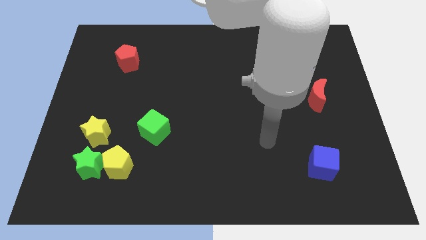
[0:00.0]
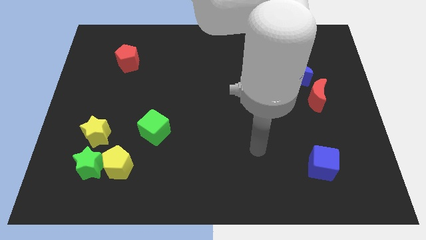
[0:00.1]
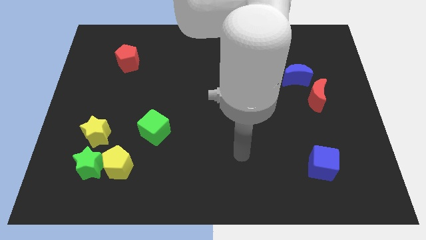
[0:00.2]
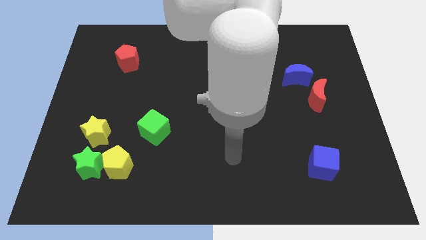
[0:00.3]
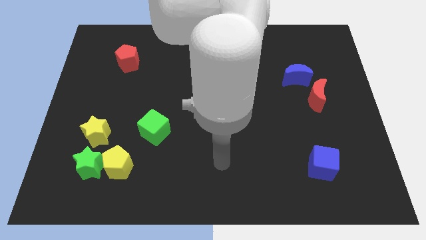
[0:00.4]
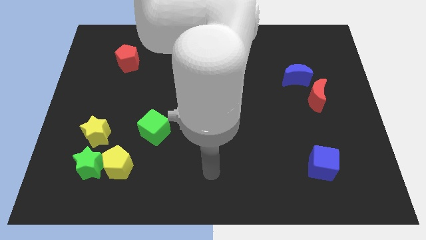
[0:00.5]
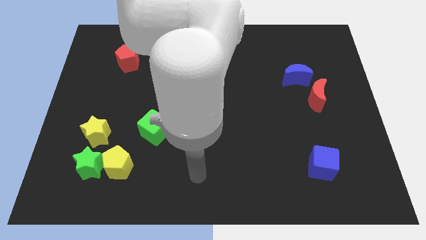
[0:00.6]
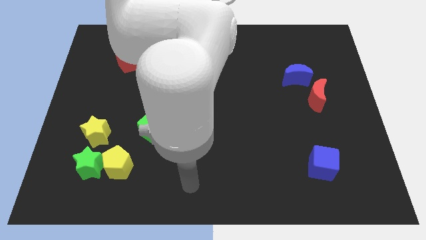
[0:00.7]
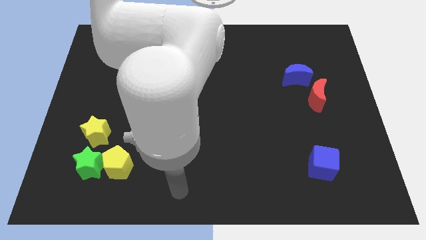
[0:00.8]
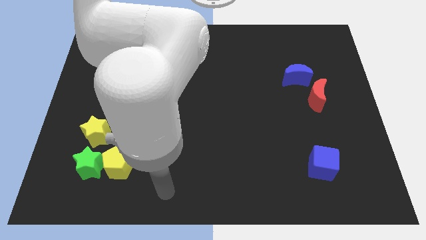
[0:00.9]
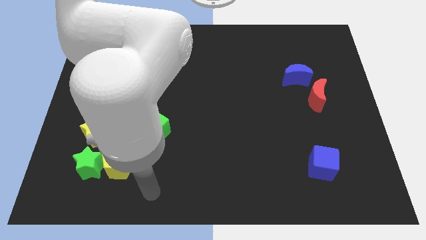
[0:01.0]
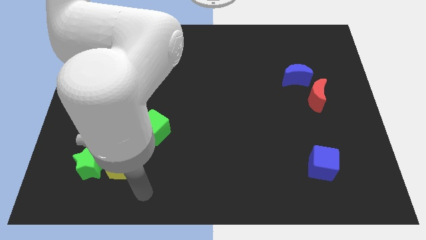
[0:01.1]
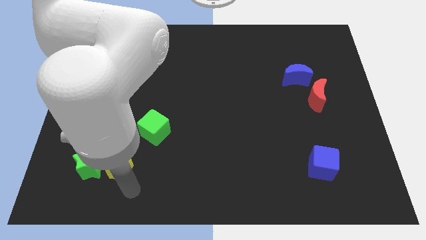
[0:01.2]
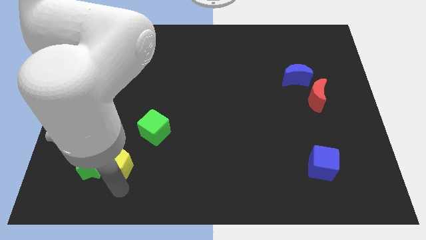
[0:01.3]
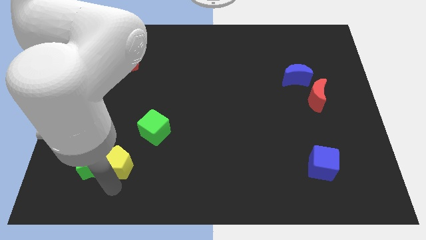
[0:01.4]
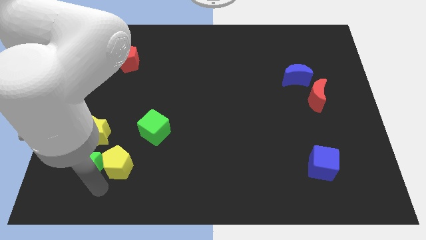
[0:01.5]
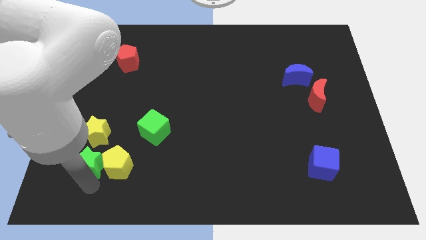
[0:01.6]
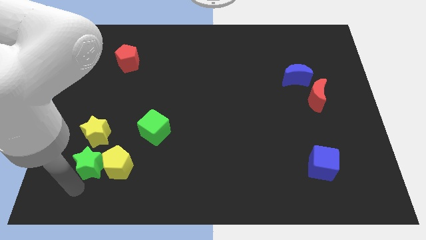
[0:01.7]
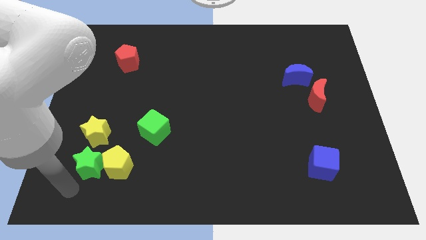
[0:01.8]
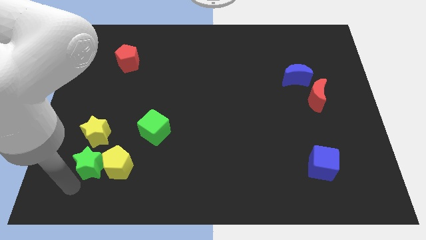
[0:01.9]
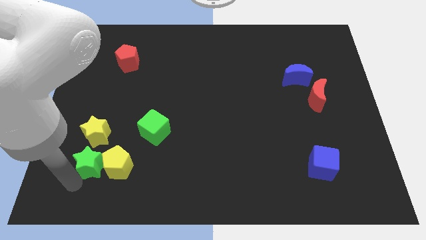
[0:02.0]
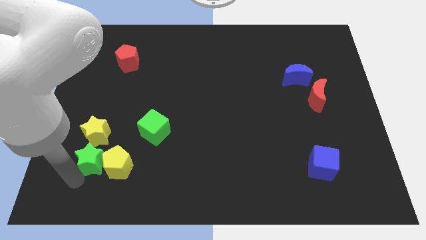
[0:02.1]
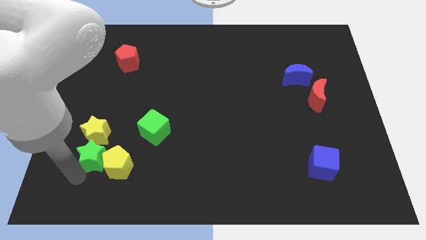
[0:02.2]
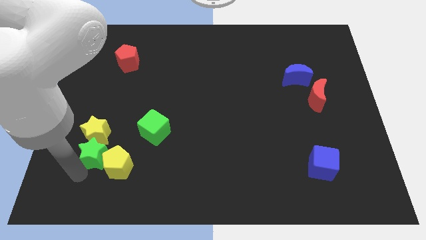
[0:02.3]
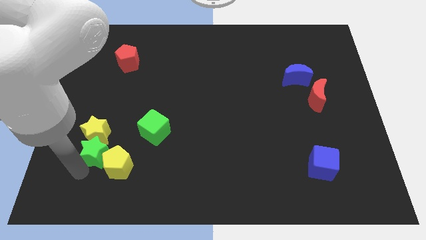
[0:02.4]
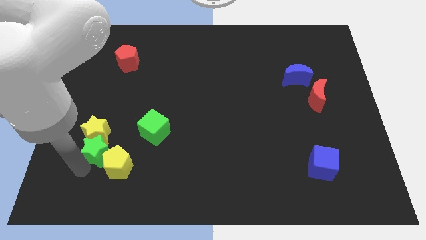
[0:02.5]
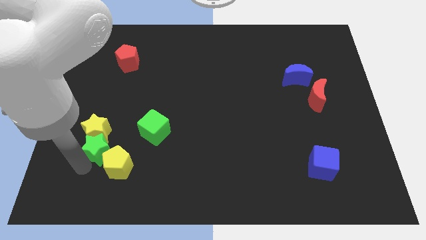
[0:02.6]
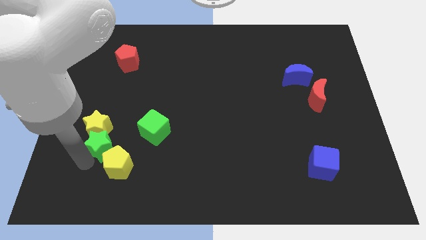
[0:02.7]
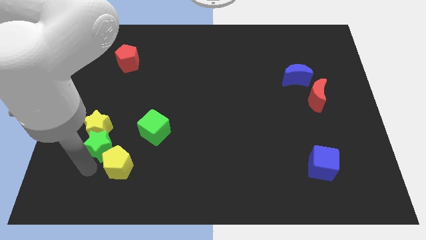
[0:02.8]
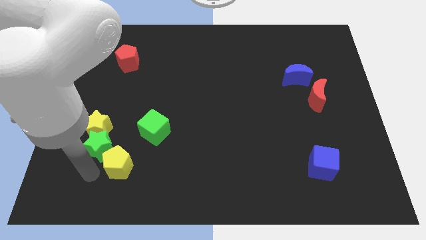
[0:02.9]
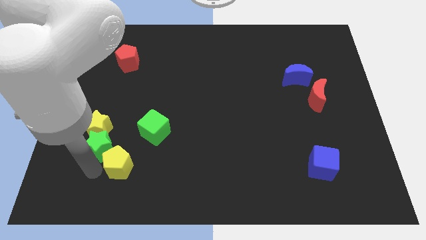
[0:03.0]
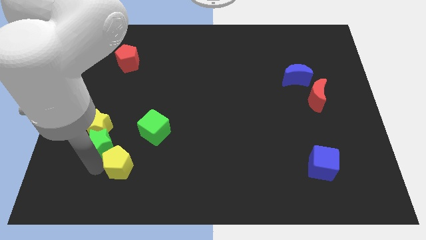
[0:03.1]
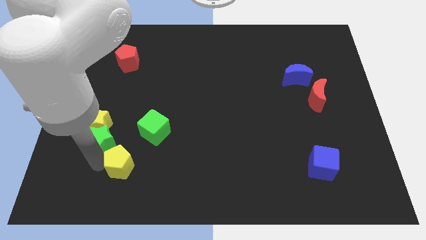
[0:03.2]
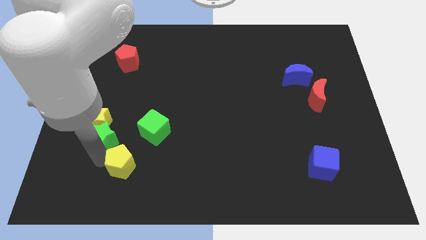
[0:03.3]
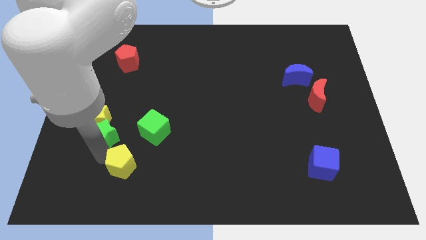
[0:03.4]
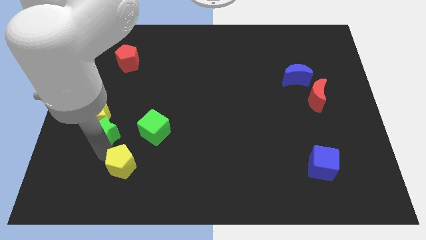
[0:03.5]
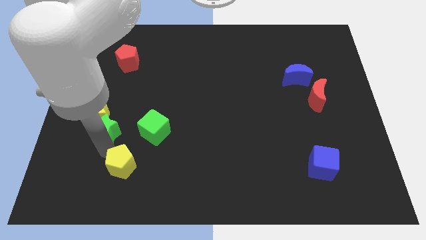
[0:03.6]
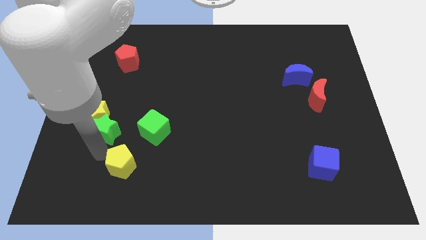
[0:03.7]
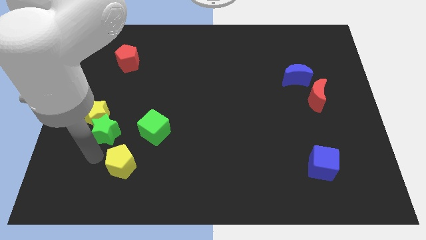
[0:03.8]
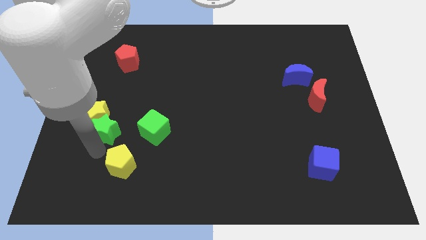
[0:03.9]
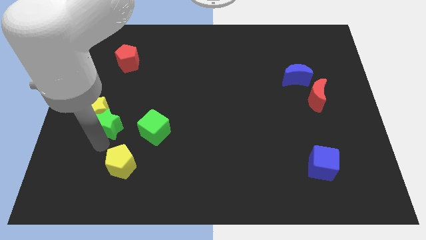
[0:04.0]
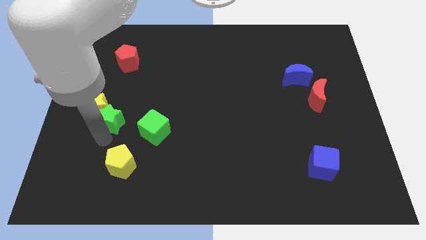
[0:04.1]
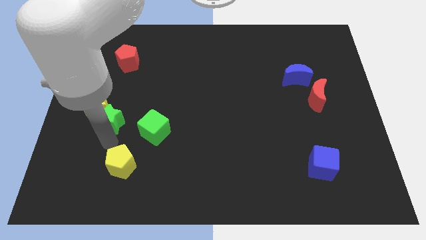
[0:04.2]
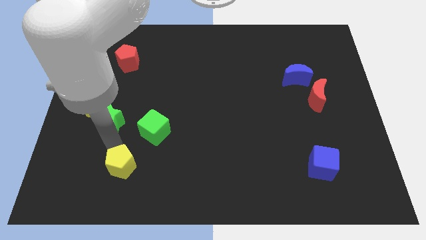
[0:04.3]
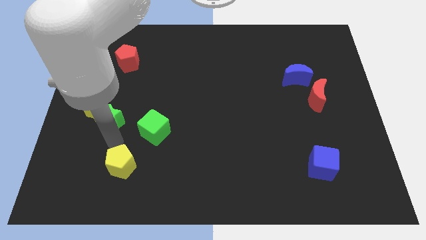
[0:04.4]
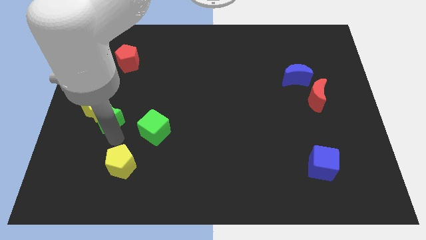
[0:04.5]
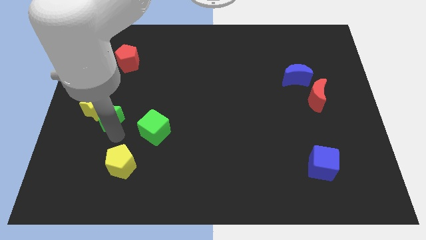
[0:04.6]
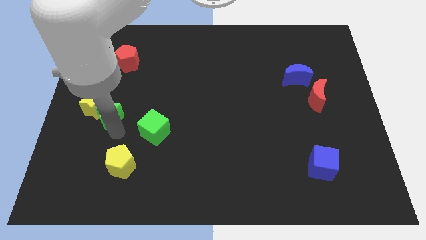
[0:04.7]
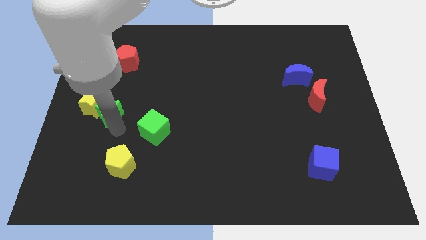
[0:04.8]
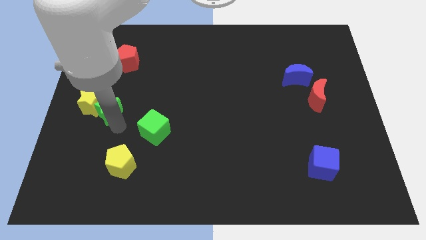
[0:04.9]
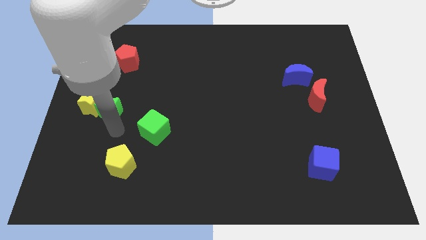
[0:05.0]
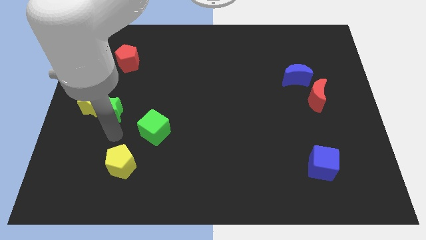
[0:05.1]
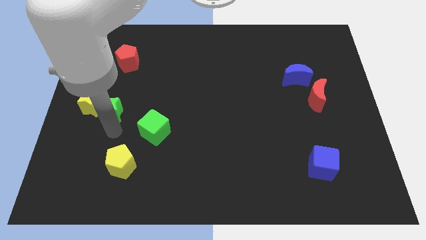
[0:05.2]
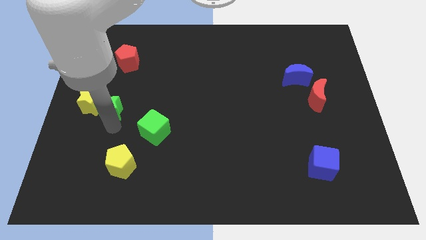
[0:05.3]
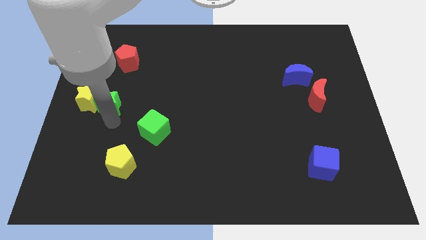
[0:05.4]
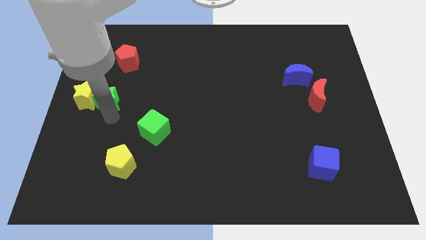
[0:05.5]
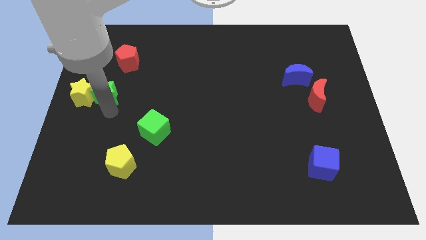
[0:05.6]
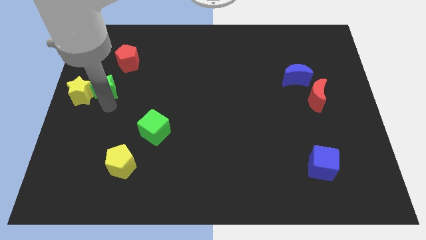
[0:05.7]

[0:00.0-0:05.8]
slide the green star upwards

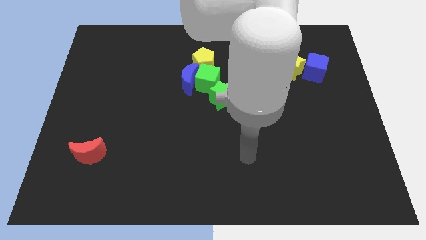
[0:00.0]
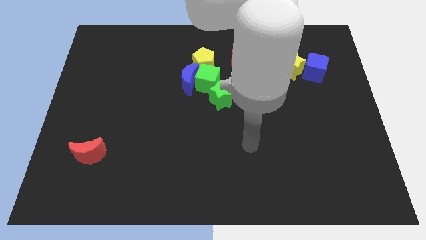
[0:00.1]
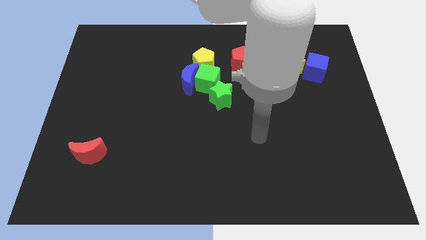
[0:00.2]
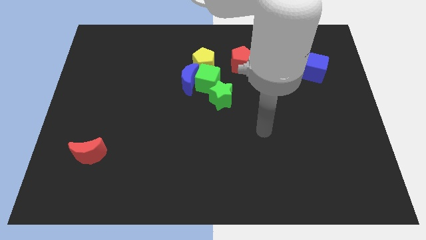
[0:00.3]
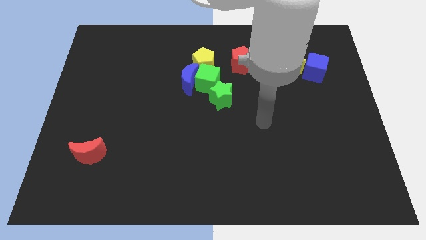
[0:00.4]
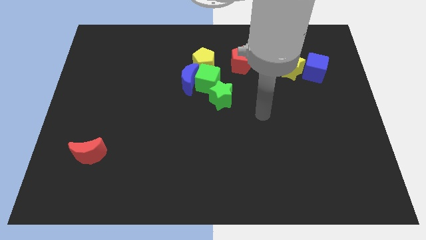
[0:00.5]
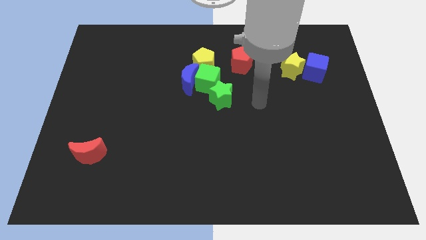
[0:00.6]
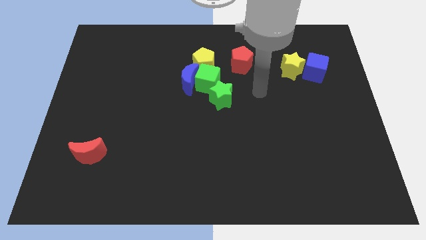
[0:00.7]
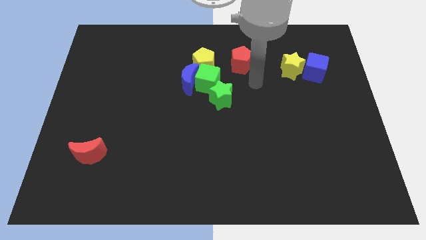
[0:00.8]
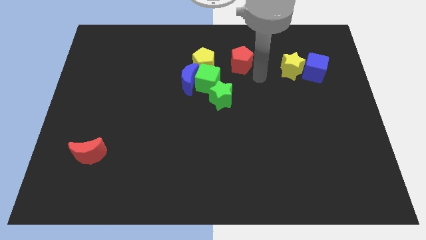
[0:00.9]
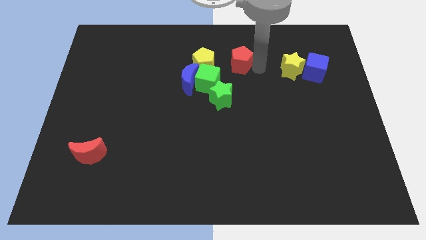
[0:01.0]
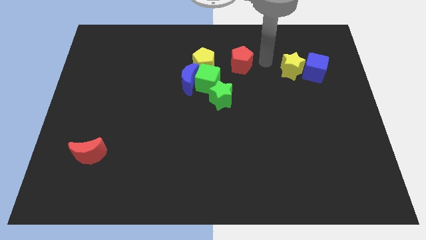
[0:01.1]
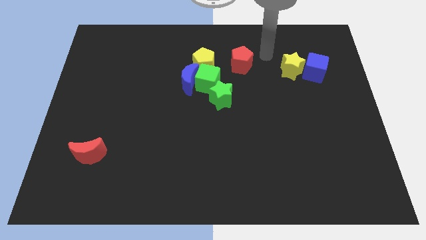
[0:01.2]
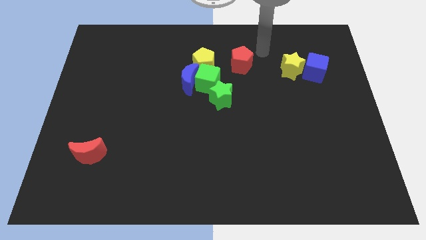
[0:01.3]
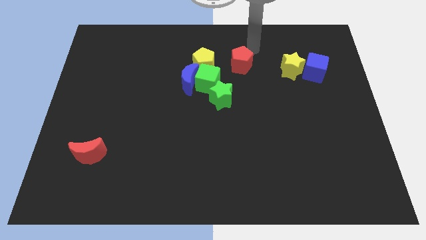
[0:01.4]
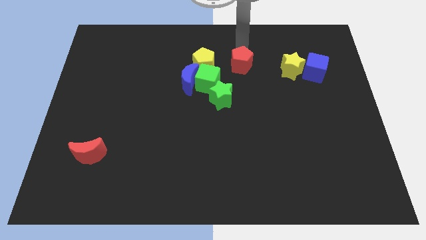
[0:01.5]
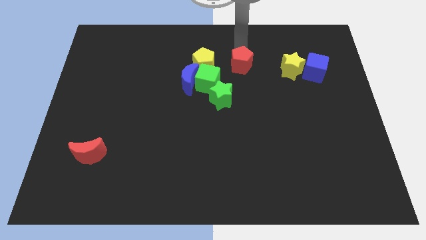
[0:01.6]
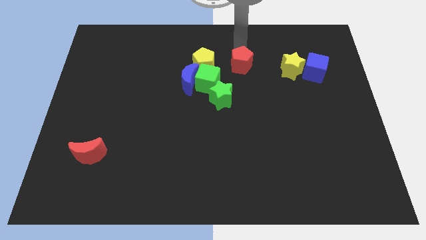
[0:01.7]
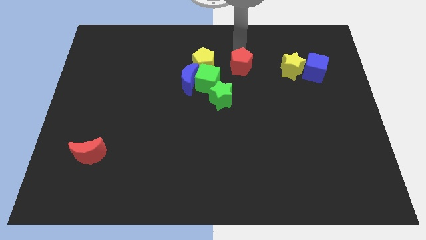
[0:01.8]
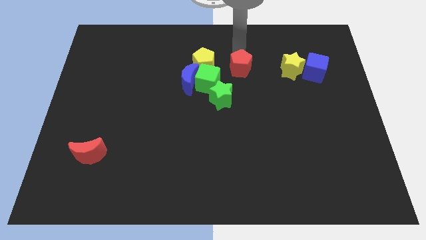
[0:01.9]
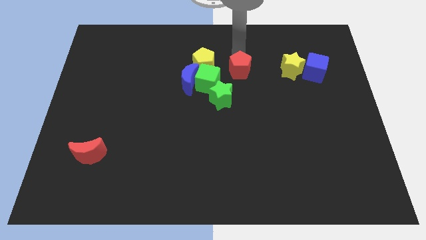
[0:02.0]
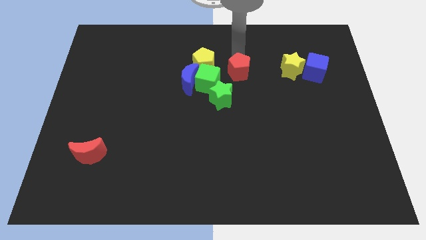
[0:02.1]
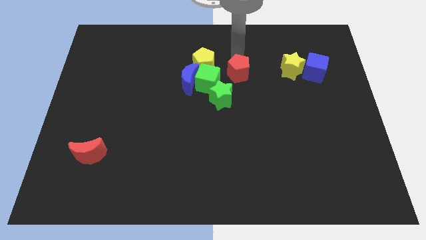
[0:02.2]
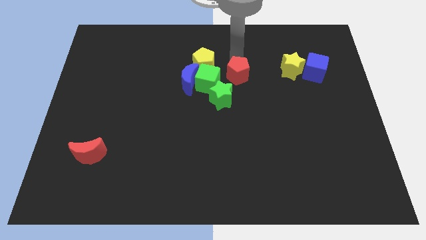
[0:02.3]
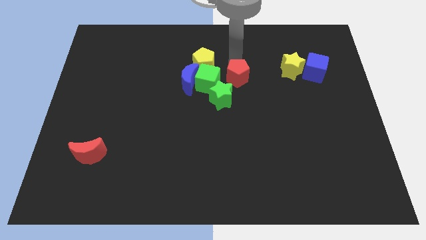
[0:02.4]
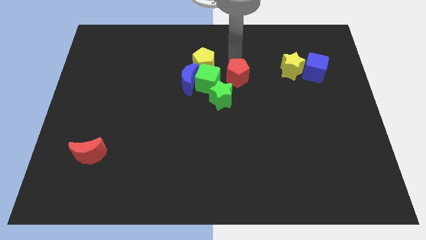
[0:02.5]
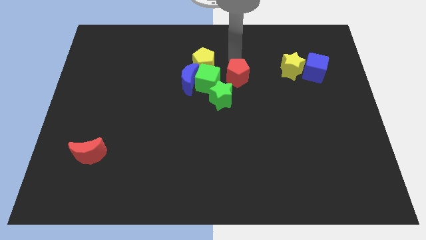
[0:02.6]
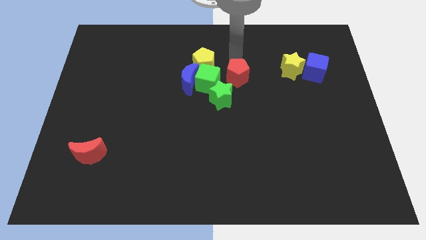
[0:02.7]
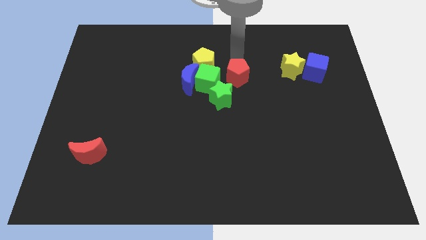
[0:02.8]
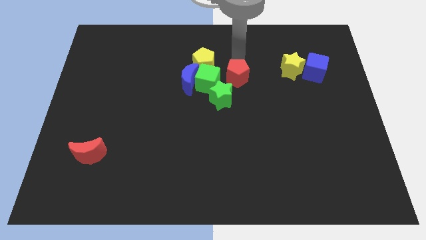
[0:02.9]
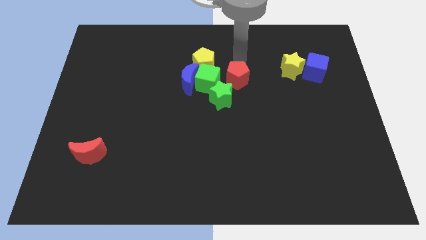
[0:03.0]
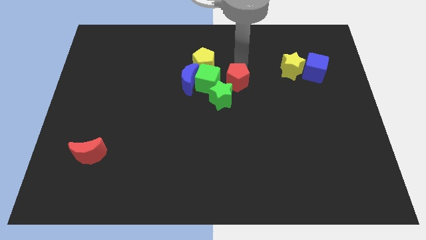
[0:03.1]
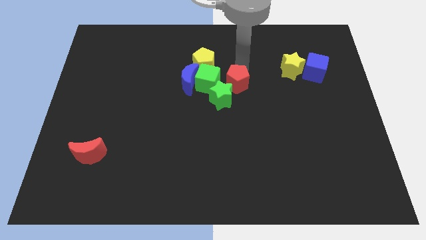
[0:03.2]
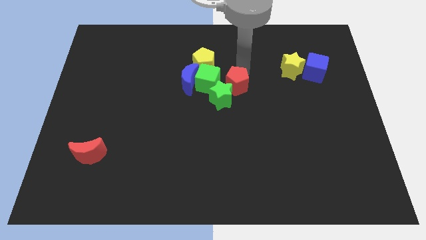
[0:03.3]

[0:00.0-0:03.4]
slightly push the red pentagon down
